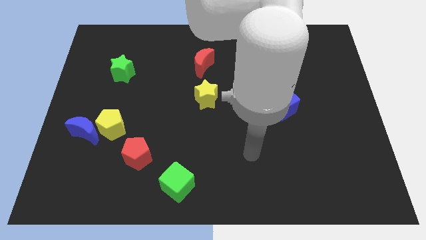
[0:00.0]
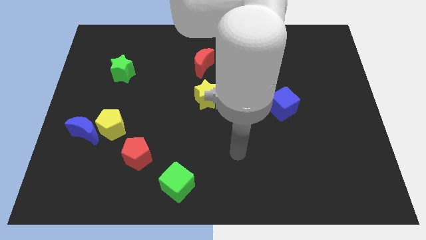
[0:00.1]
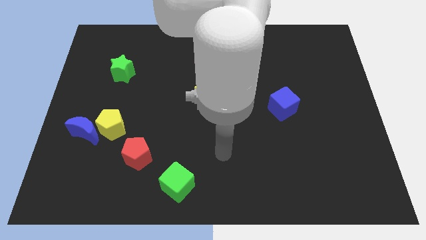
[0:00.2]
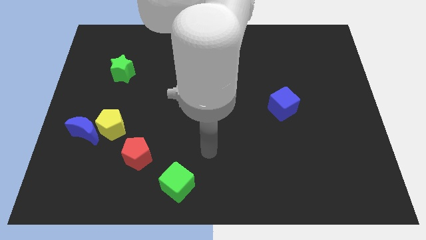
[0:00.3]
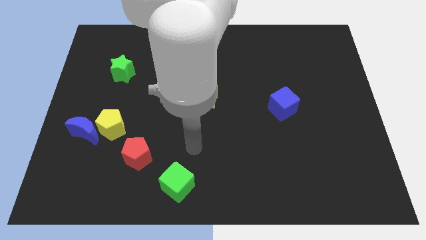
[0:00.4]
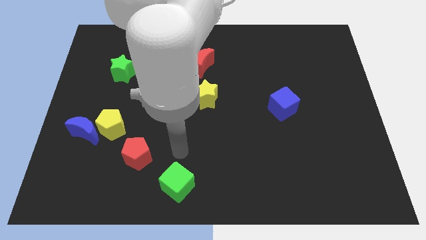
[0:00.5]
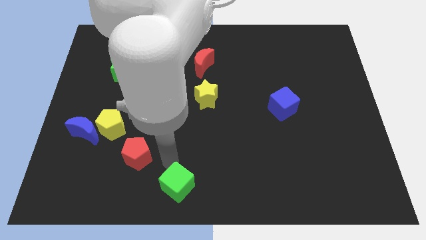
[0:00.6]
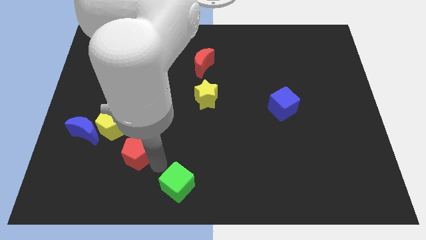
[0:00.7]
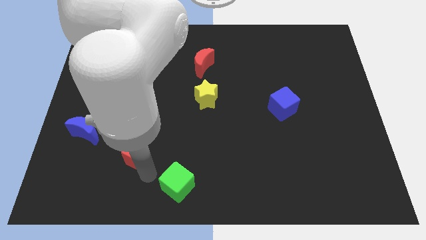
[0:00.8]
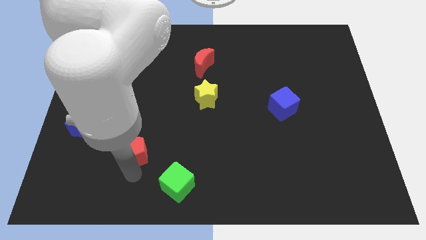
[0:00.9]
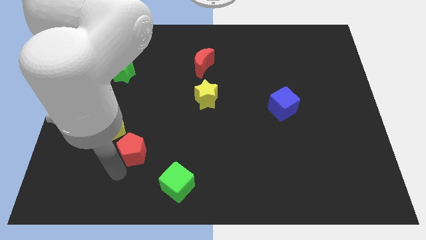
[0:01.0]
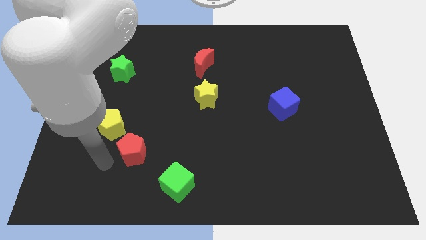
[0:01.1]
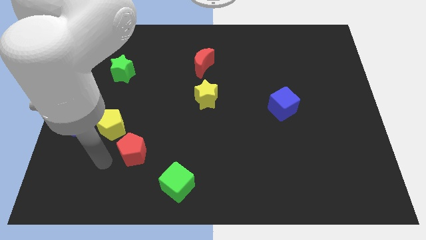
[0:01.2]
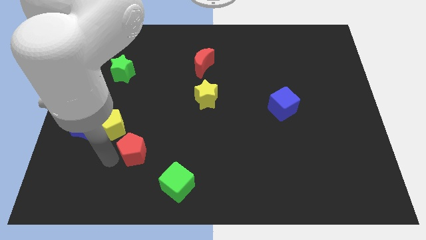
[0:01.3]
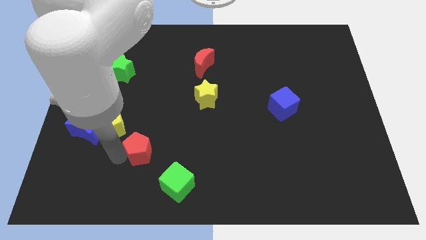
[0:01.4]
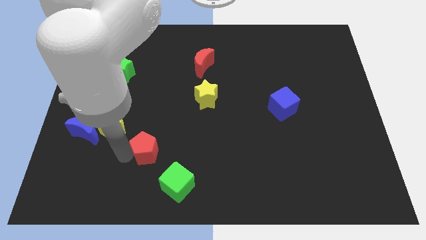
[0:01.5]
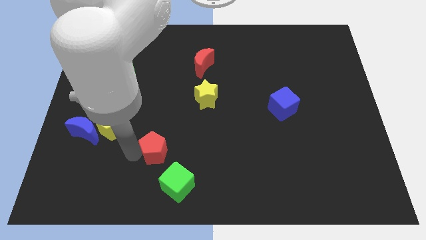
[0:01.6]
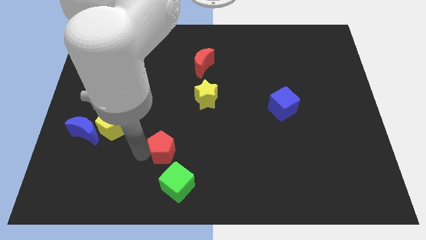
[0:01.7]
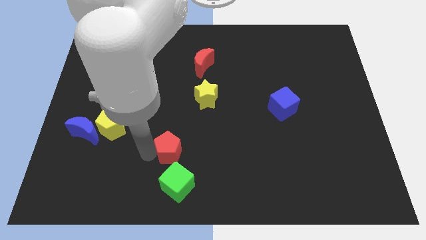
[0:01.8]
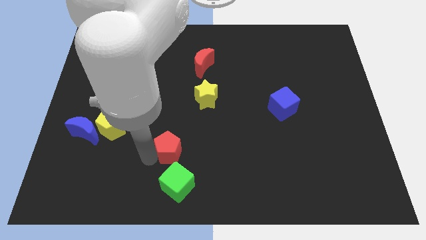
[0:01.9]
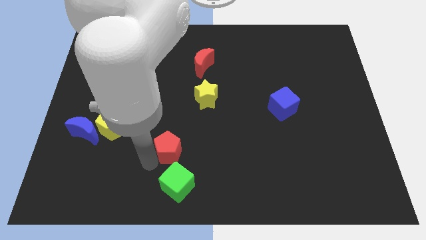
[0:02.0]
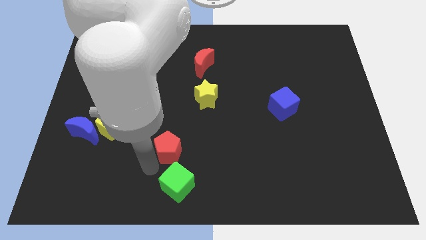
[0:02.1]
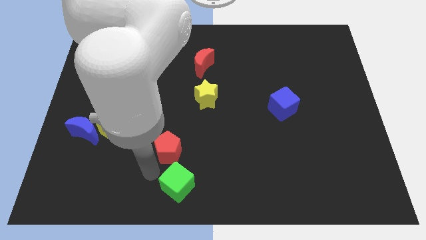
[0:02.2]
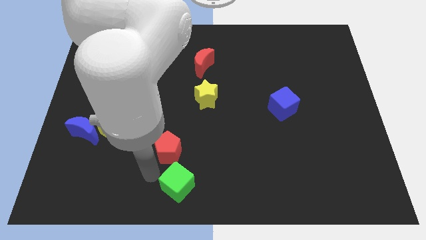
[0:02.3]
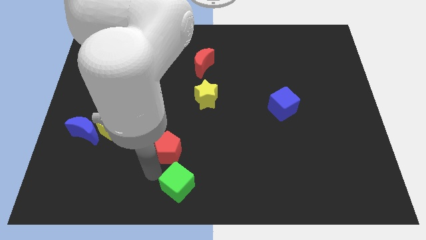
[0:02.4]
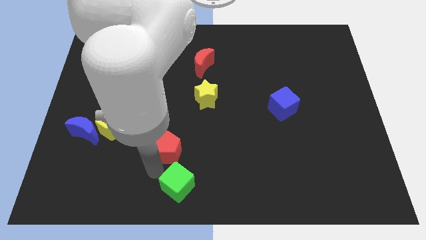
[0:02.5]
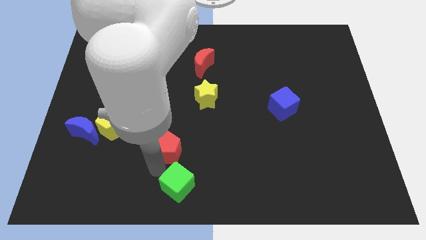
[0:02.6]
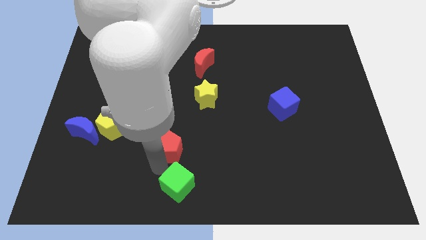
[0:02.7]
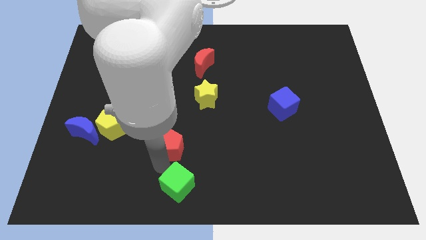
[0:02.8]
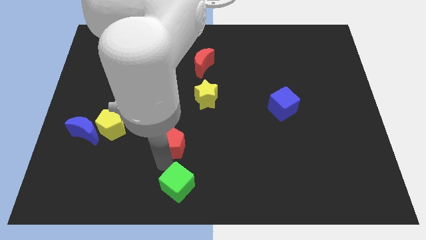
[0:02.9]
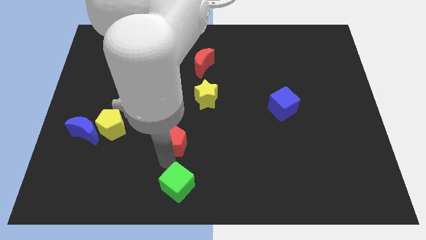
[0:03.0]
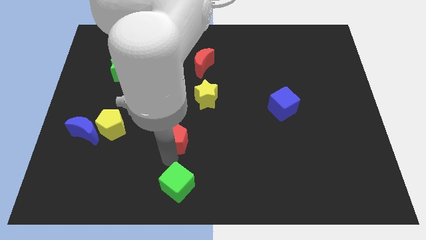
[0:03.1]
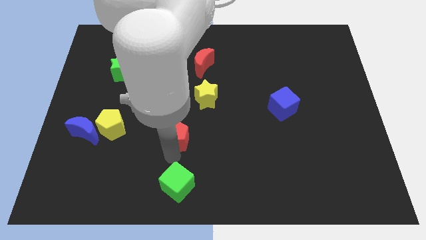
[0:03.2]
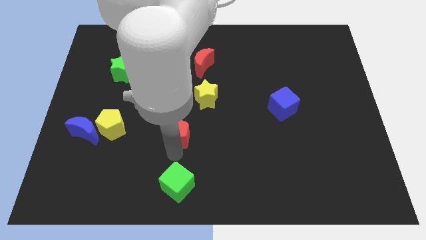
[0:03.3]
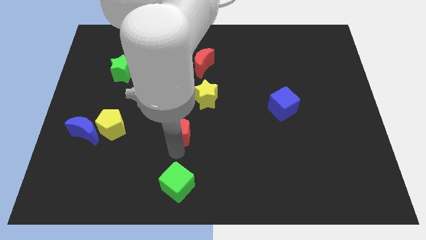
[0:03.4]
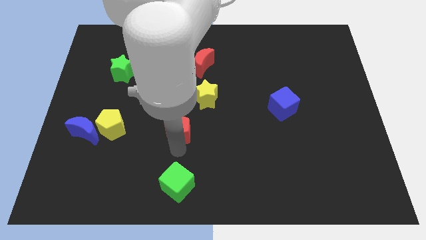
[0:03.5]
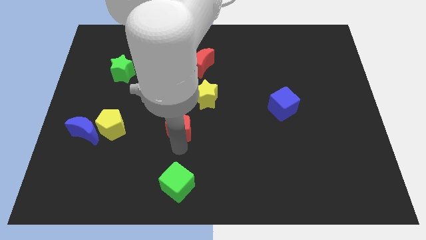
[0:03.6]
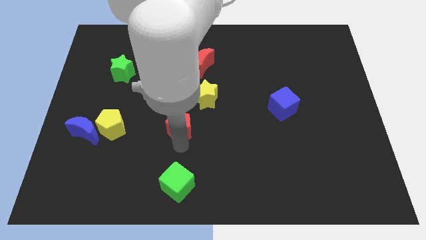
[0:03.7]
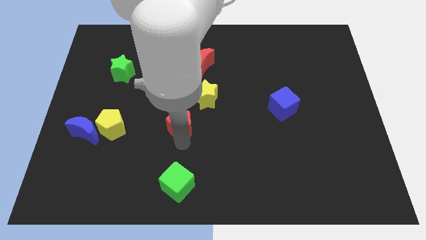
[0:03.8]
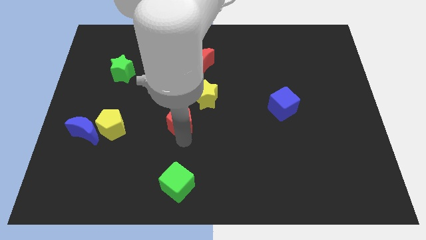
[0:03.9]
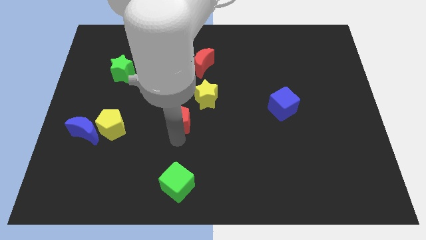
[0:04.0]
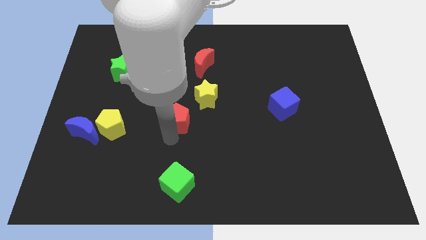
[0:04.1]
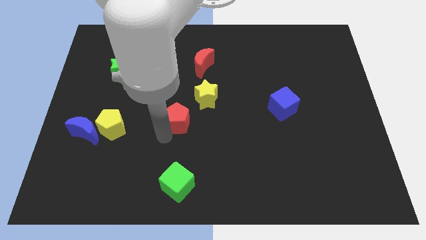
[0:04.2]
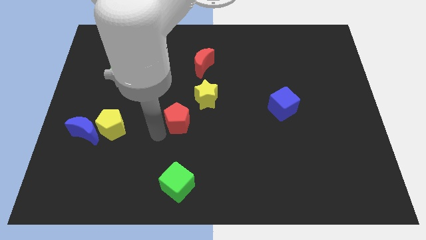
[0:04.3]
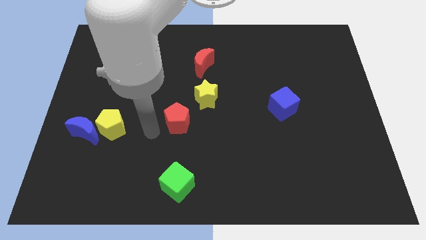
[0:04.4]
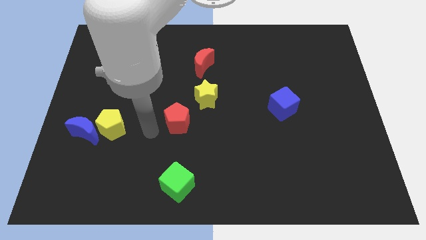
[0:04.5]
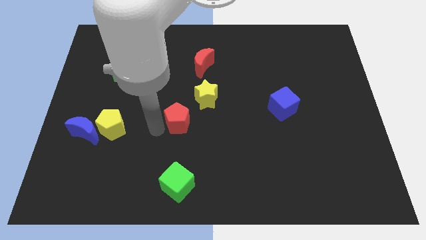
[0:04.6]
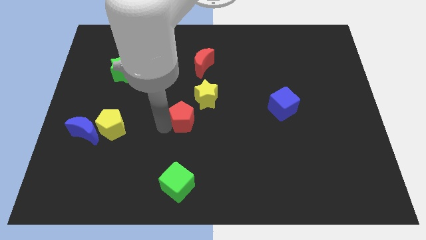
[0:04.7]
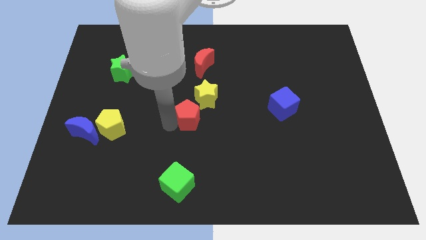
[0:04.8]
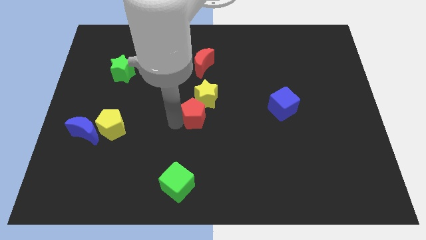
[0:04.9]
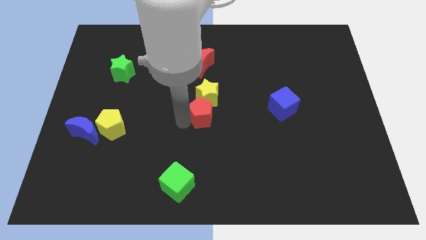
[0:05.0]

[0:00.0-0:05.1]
push the red pentagon to the bottom of the red moon

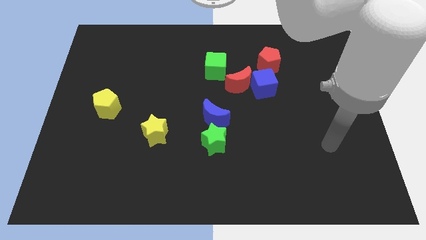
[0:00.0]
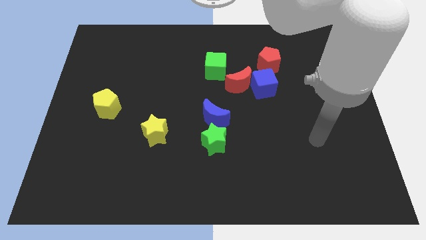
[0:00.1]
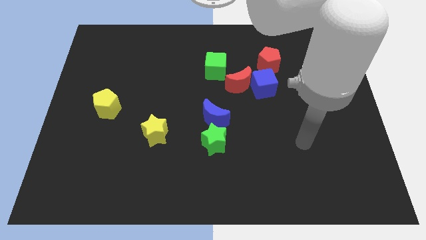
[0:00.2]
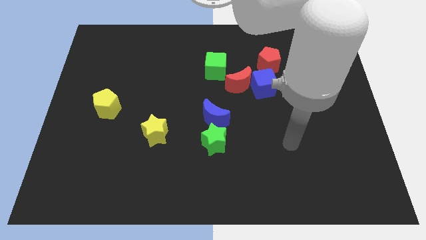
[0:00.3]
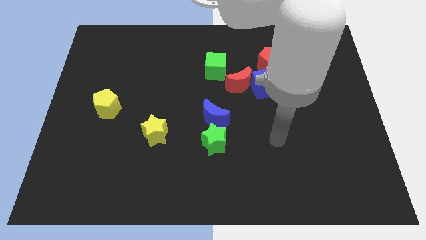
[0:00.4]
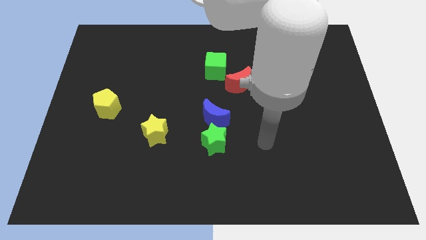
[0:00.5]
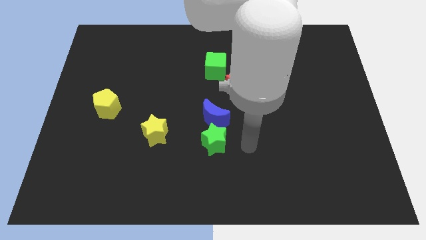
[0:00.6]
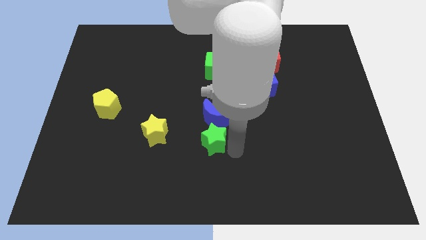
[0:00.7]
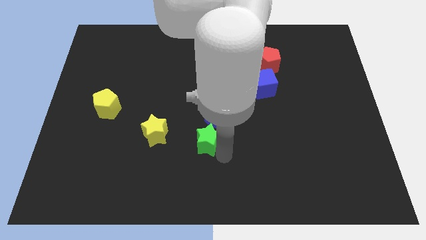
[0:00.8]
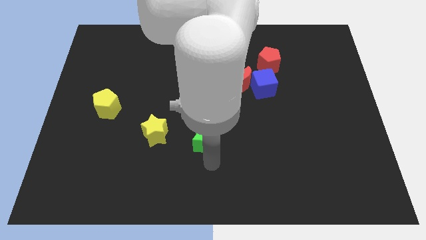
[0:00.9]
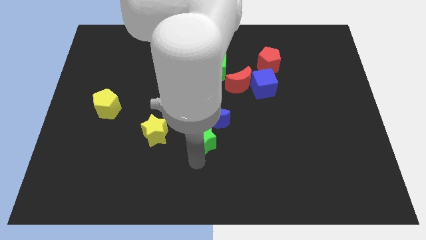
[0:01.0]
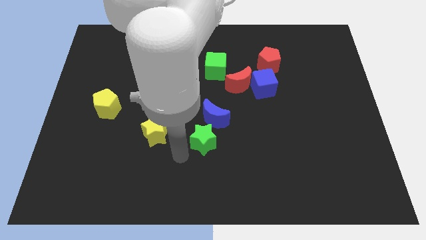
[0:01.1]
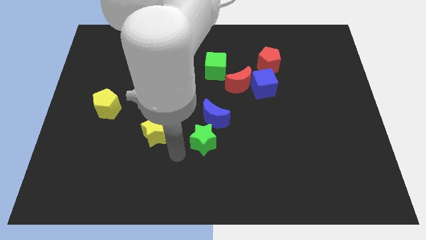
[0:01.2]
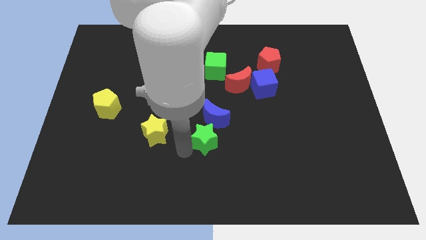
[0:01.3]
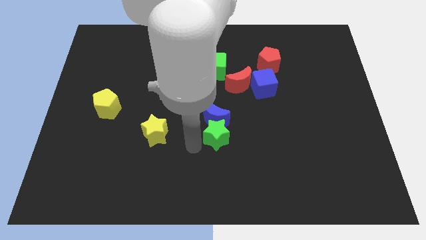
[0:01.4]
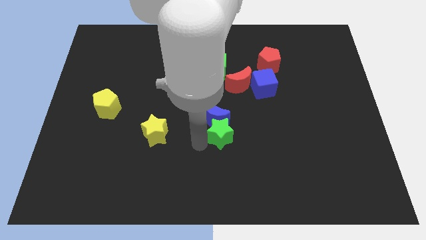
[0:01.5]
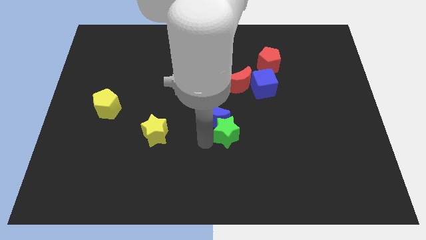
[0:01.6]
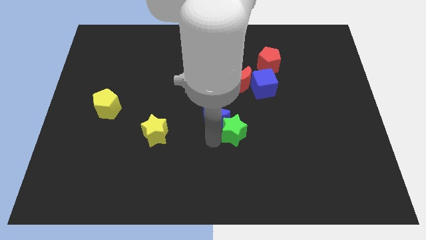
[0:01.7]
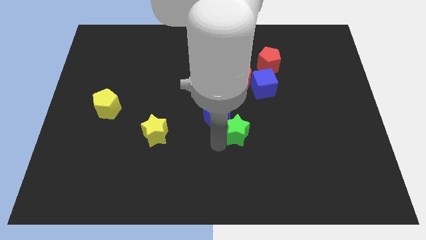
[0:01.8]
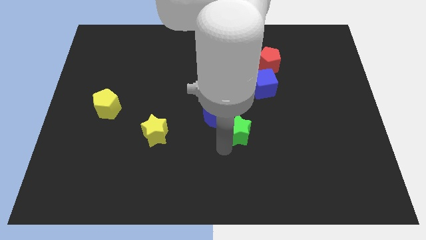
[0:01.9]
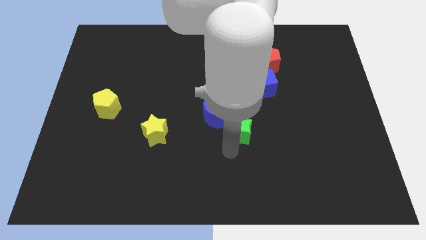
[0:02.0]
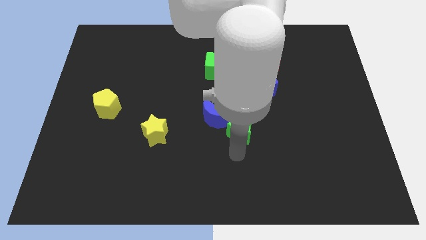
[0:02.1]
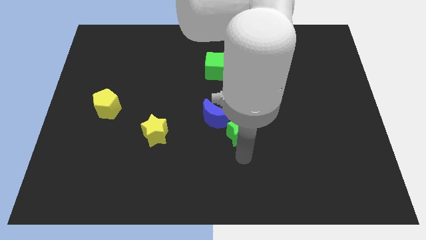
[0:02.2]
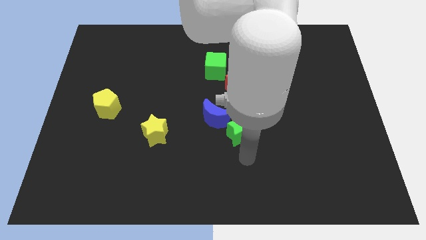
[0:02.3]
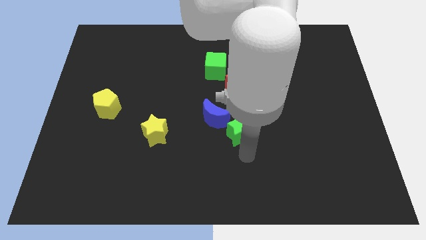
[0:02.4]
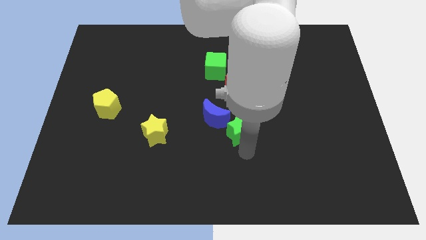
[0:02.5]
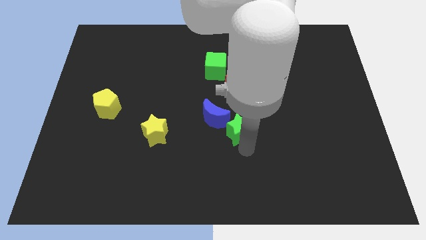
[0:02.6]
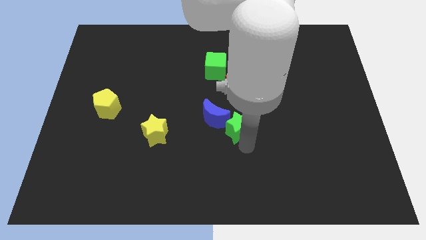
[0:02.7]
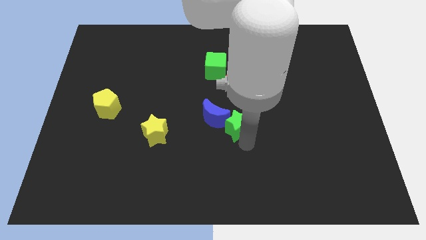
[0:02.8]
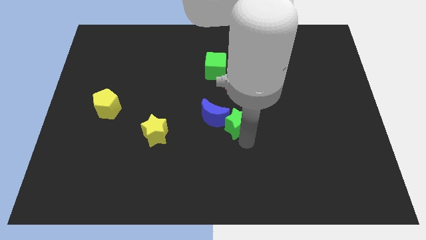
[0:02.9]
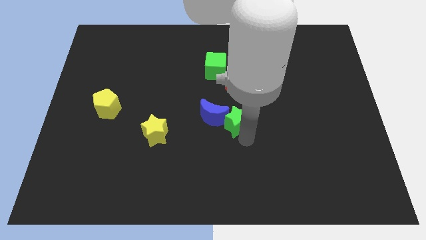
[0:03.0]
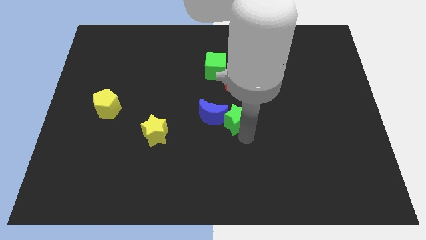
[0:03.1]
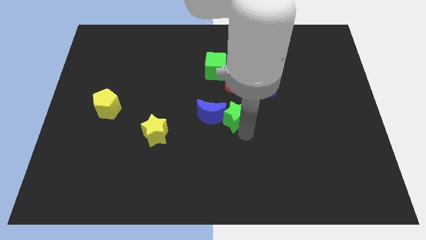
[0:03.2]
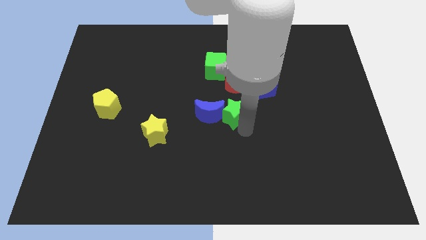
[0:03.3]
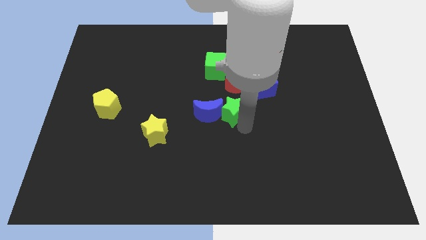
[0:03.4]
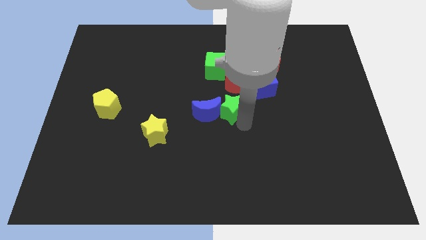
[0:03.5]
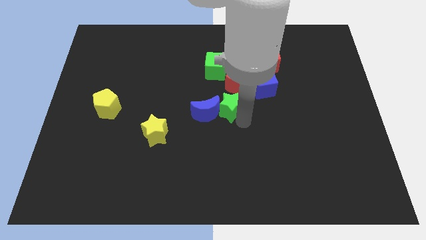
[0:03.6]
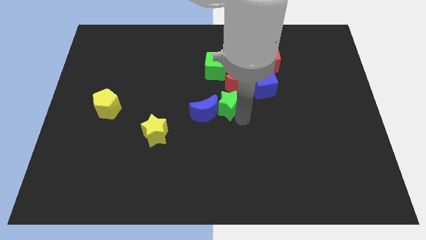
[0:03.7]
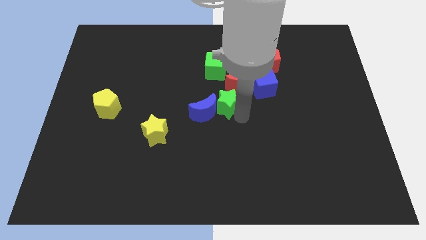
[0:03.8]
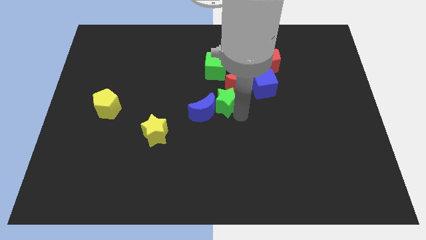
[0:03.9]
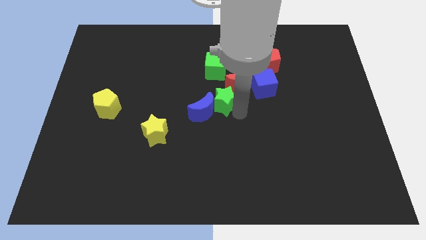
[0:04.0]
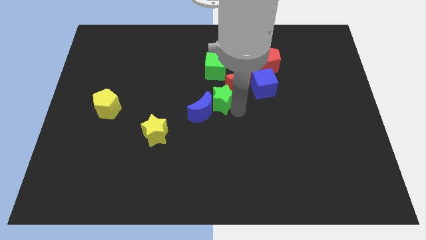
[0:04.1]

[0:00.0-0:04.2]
slide the green star just left of the blue cube
